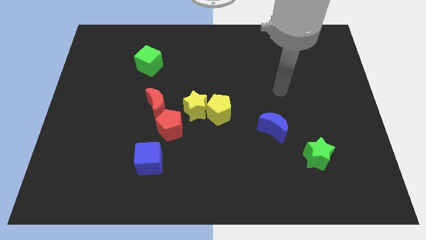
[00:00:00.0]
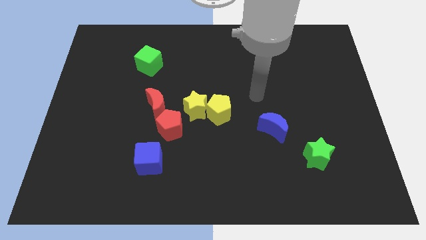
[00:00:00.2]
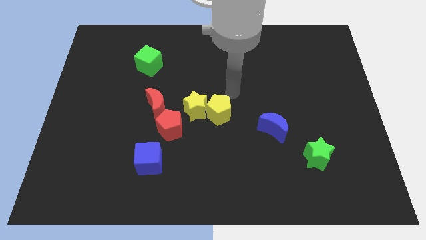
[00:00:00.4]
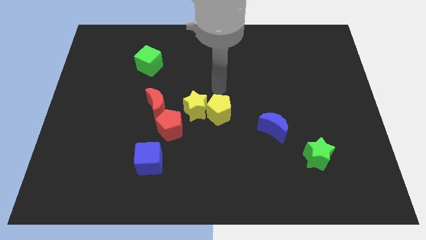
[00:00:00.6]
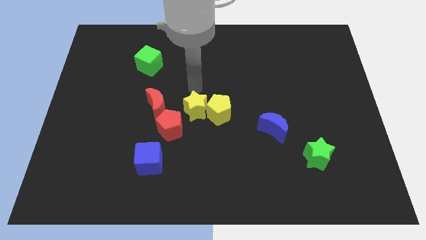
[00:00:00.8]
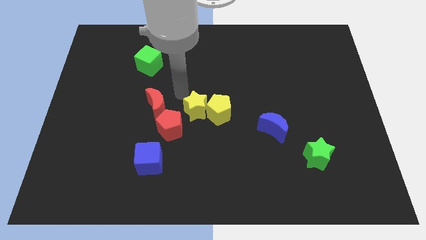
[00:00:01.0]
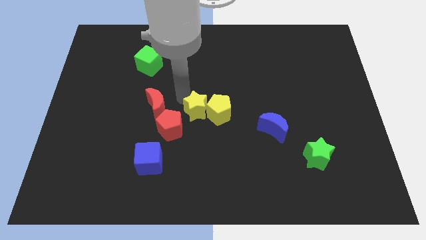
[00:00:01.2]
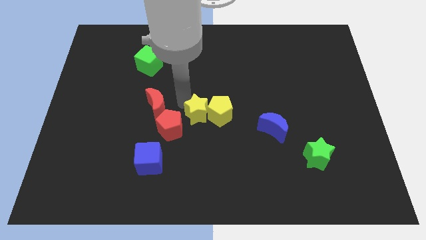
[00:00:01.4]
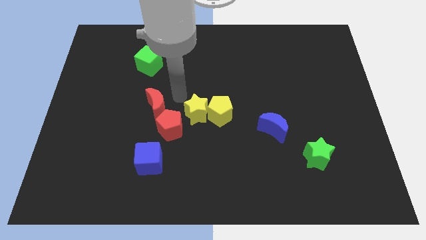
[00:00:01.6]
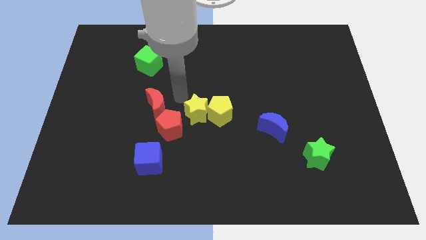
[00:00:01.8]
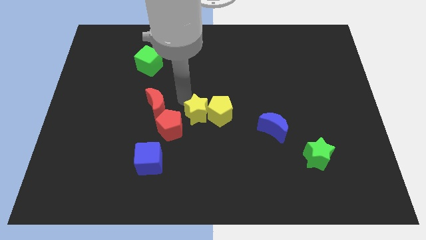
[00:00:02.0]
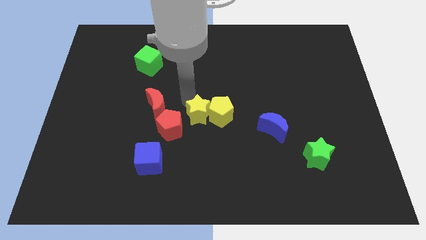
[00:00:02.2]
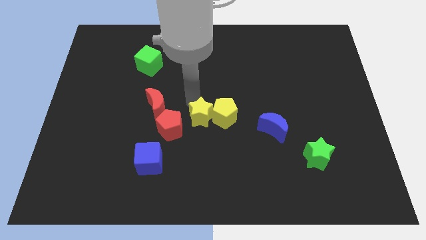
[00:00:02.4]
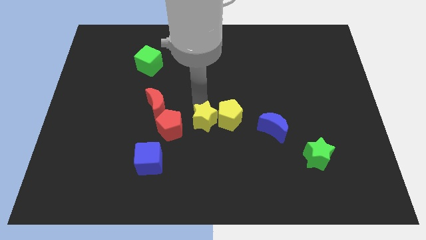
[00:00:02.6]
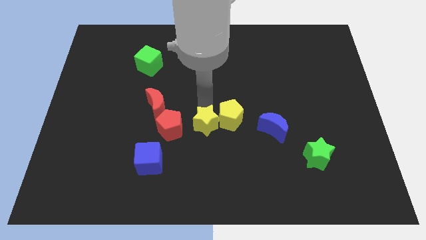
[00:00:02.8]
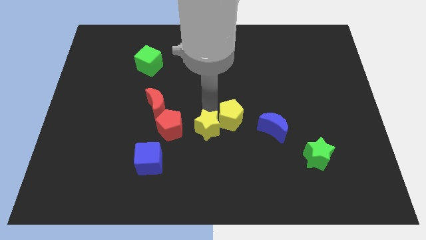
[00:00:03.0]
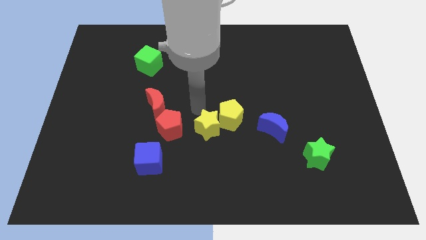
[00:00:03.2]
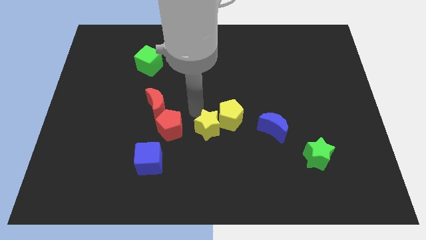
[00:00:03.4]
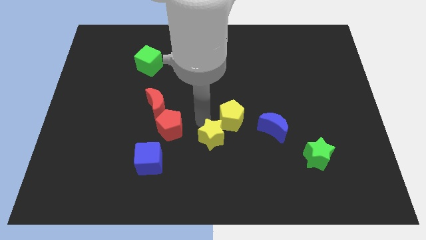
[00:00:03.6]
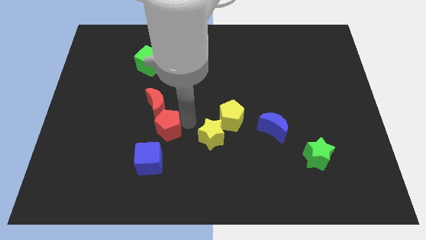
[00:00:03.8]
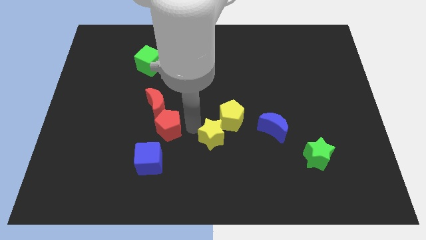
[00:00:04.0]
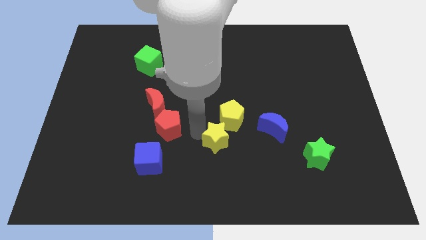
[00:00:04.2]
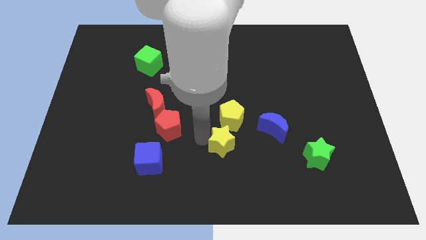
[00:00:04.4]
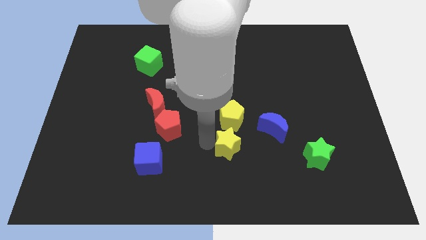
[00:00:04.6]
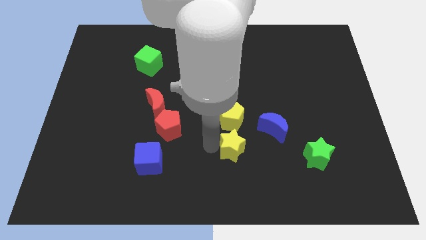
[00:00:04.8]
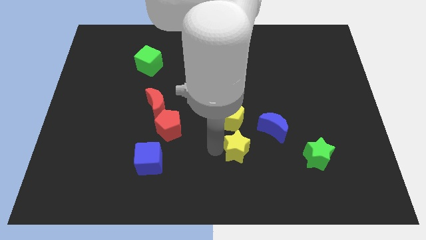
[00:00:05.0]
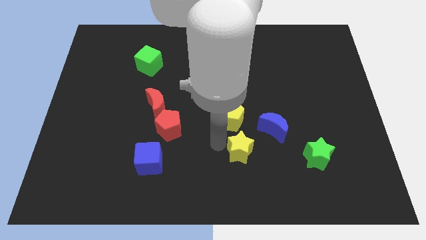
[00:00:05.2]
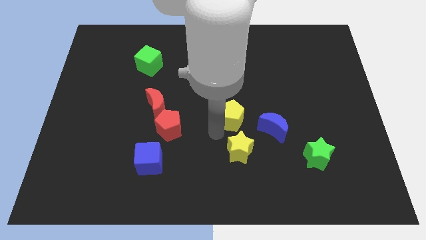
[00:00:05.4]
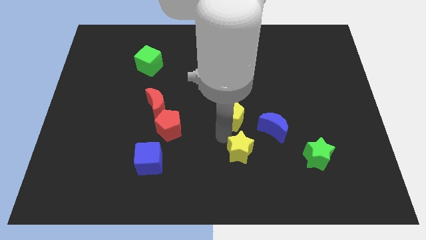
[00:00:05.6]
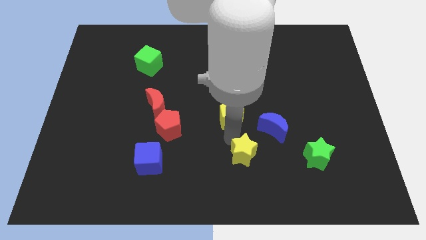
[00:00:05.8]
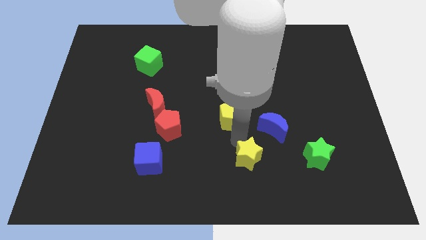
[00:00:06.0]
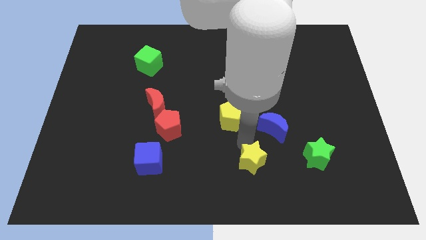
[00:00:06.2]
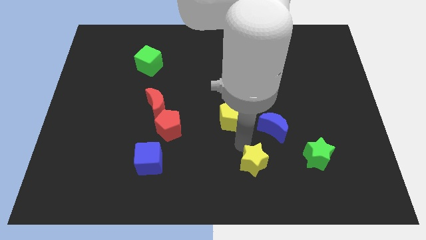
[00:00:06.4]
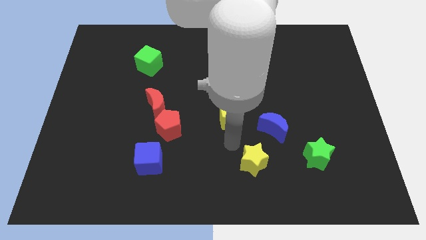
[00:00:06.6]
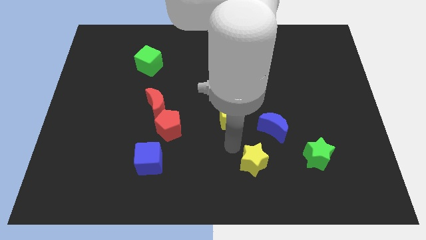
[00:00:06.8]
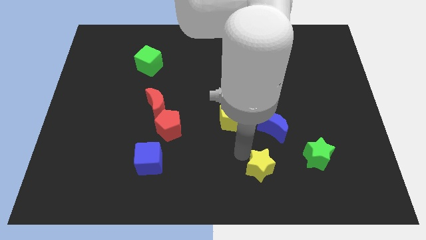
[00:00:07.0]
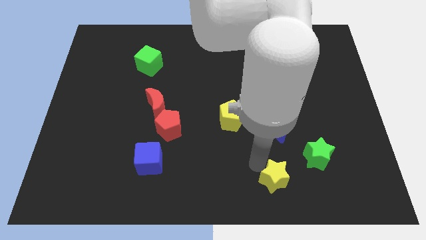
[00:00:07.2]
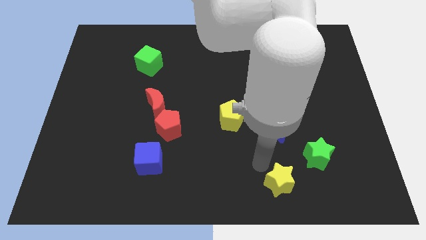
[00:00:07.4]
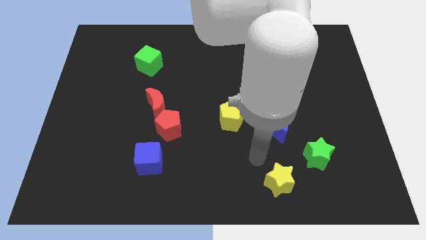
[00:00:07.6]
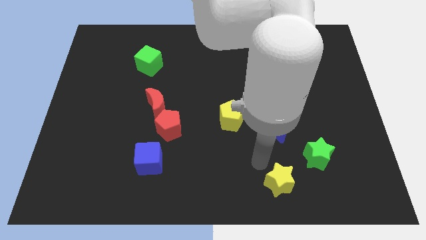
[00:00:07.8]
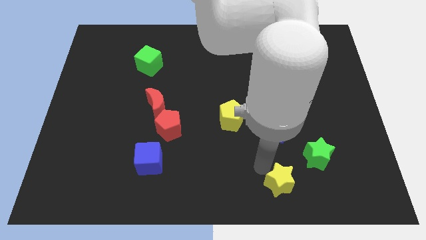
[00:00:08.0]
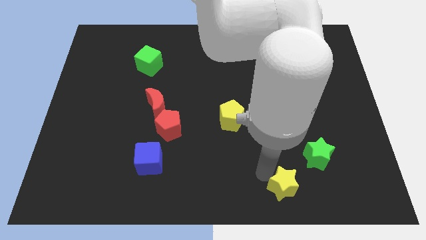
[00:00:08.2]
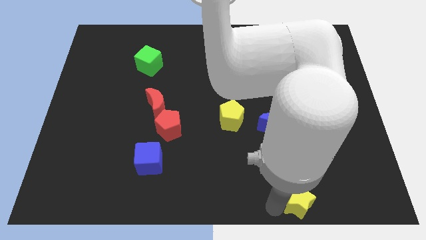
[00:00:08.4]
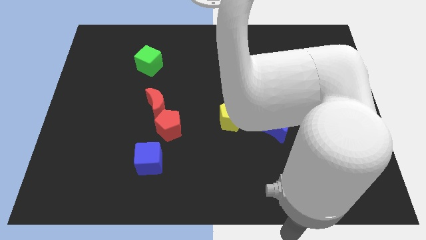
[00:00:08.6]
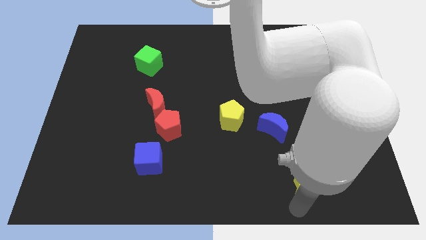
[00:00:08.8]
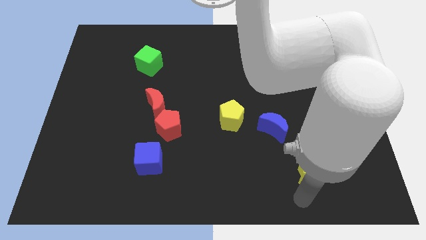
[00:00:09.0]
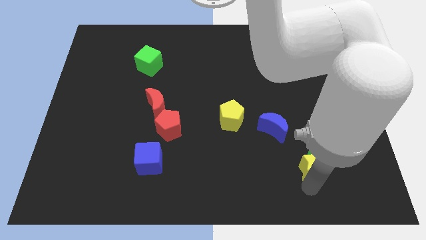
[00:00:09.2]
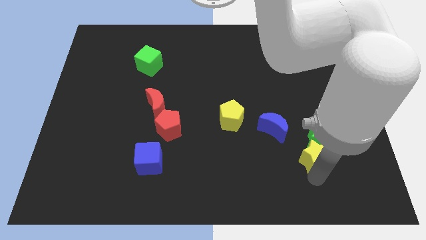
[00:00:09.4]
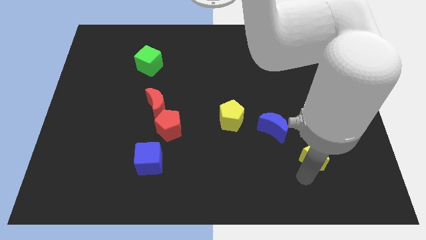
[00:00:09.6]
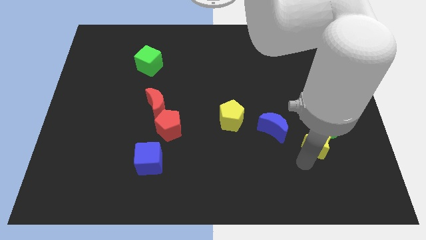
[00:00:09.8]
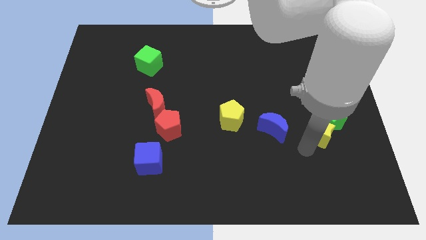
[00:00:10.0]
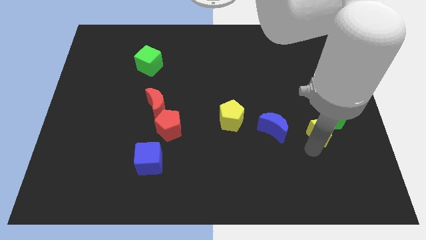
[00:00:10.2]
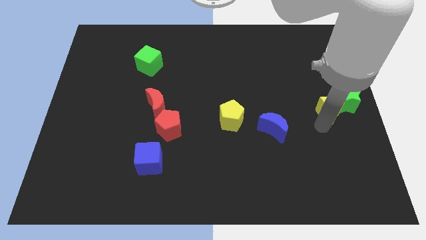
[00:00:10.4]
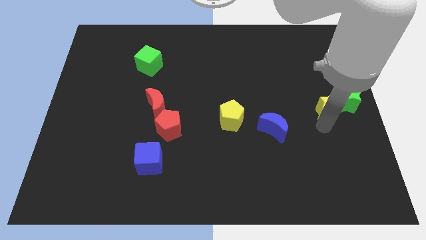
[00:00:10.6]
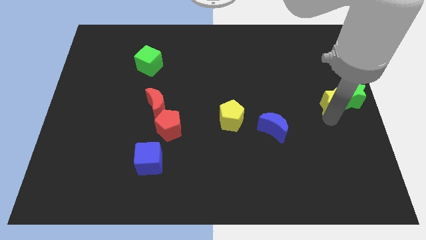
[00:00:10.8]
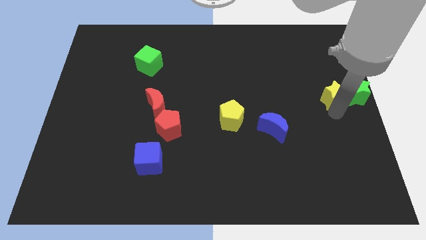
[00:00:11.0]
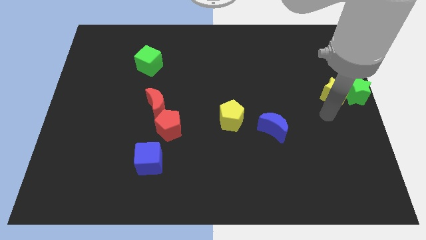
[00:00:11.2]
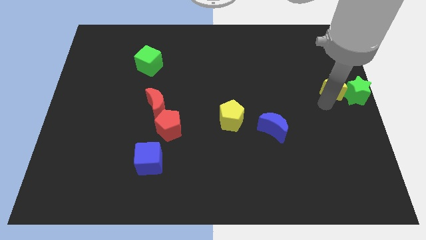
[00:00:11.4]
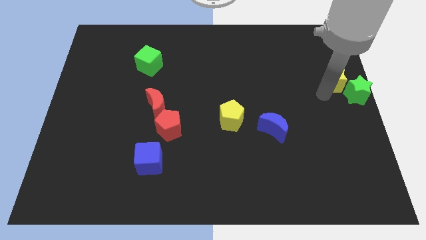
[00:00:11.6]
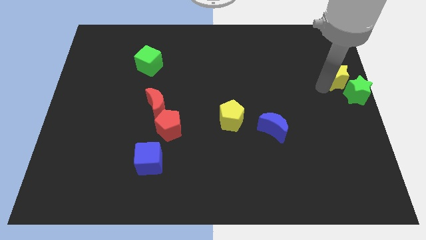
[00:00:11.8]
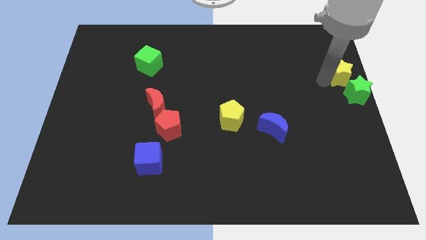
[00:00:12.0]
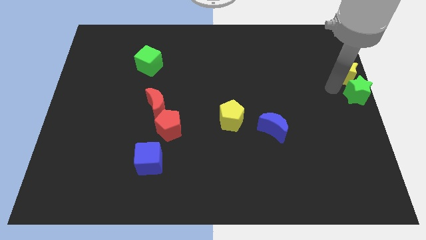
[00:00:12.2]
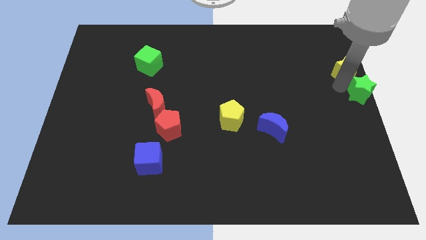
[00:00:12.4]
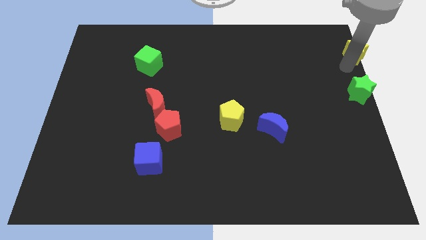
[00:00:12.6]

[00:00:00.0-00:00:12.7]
push the yellow star to the upper right corner
